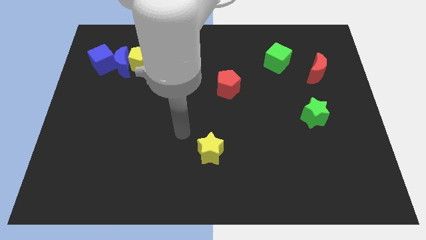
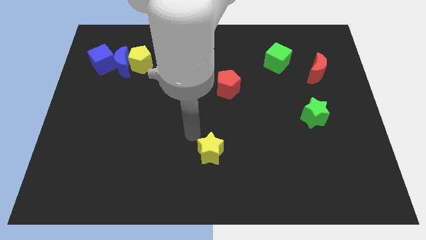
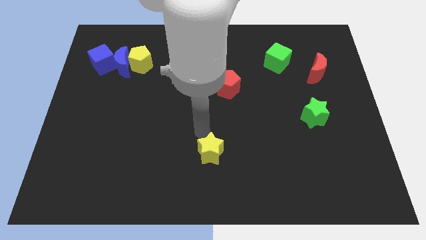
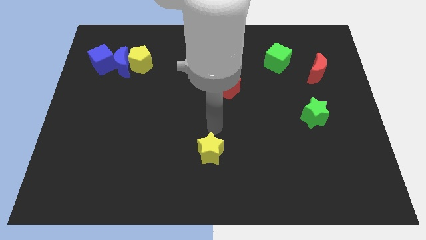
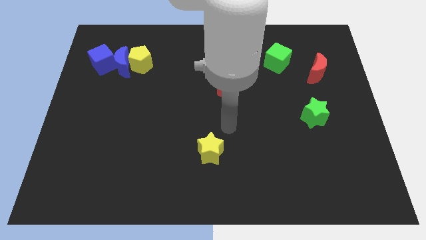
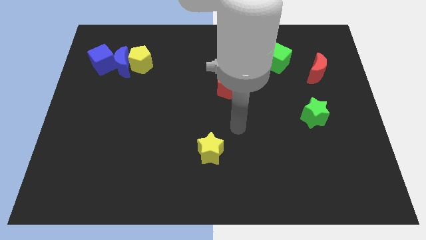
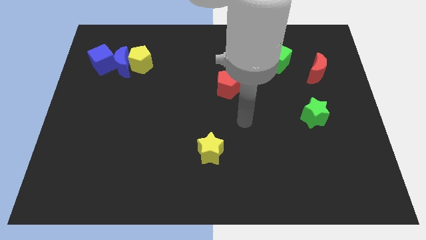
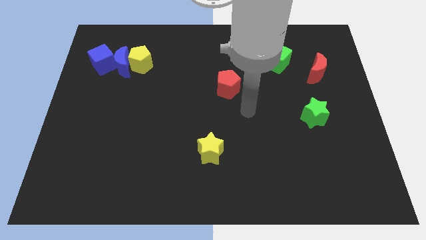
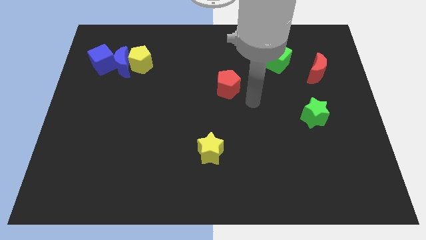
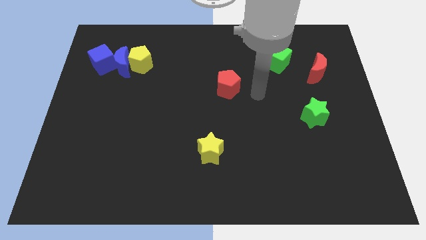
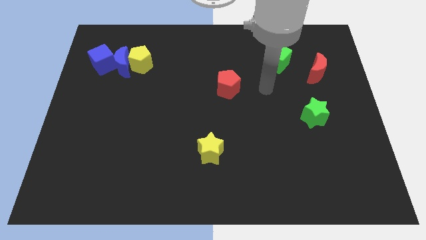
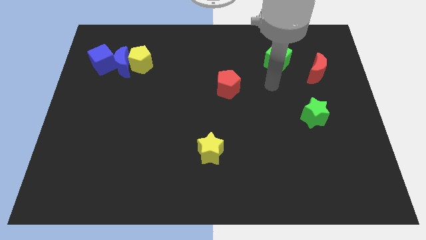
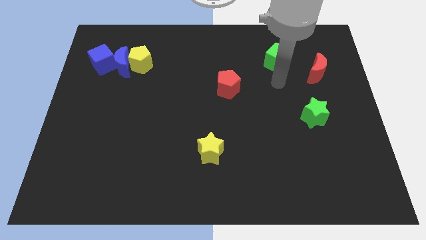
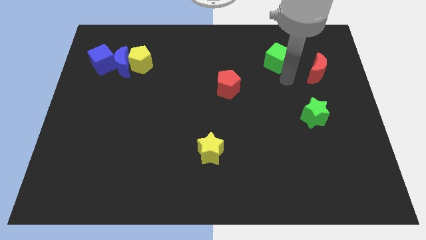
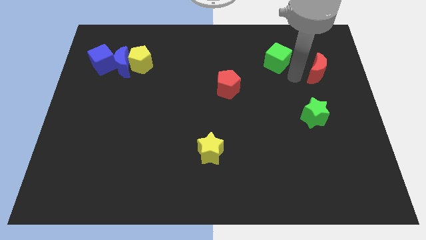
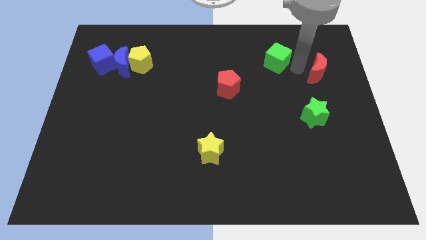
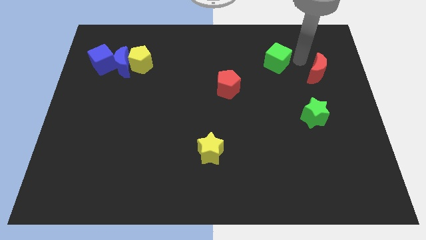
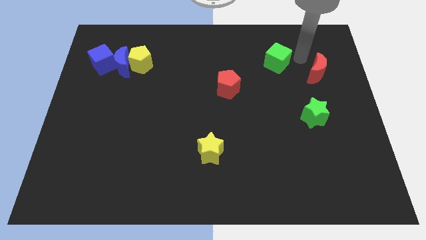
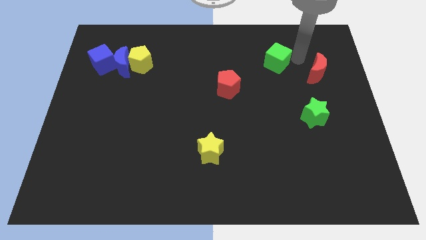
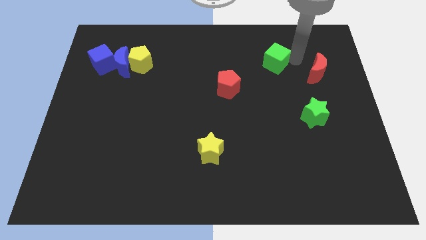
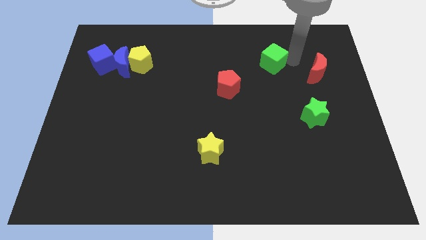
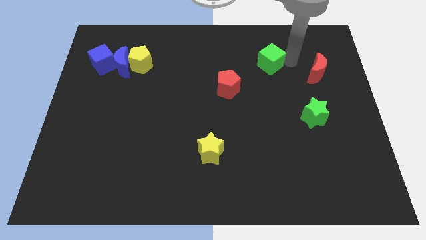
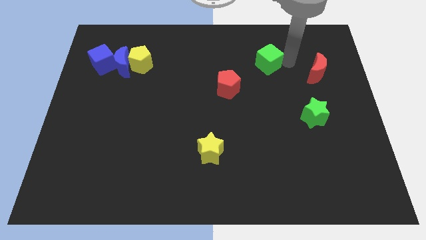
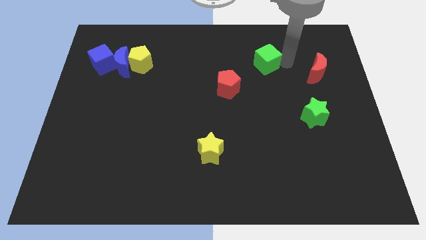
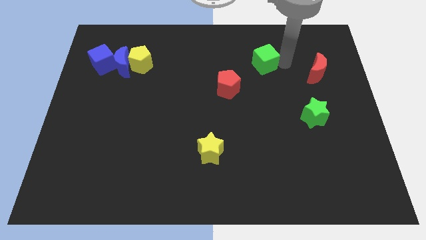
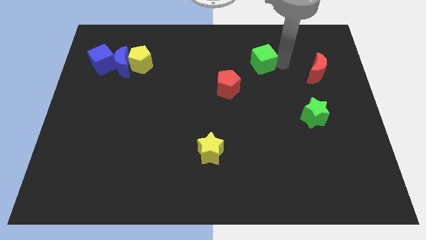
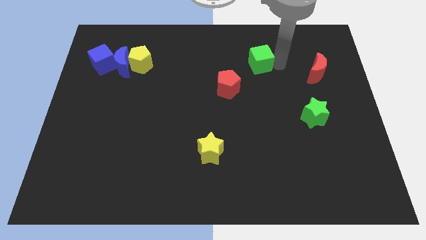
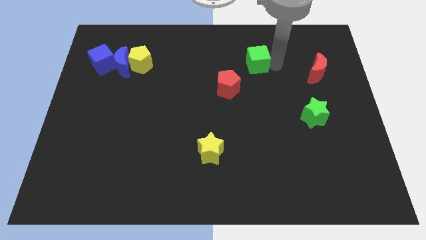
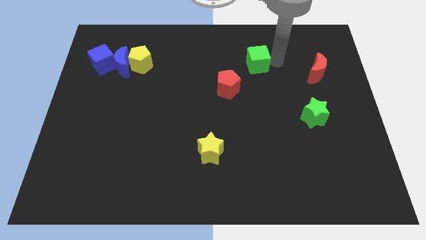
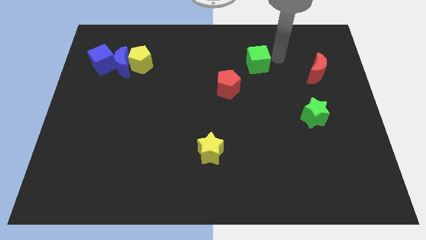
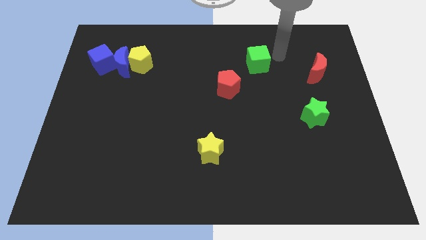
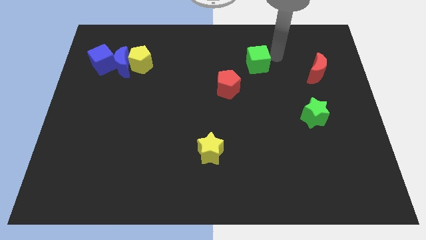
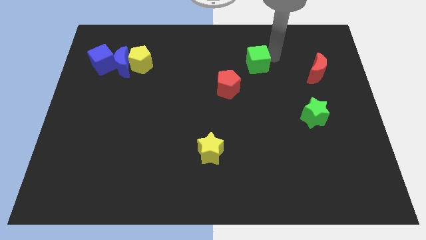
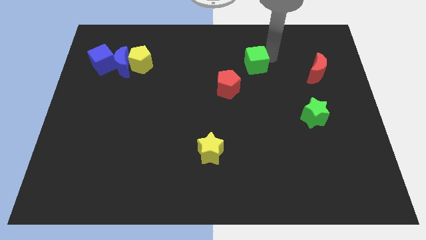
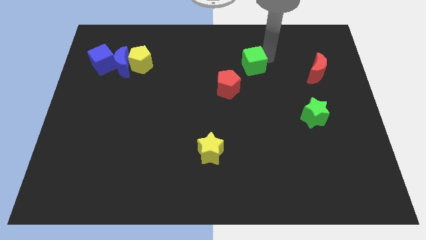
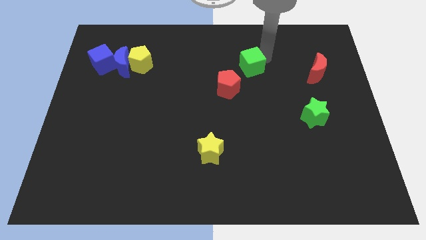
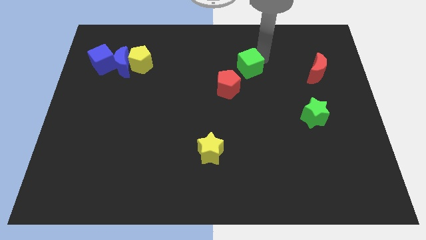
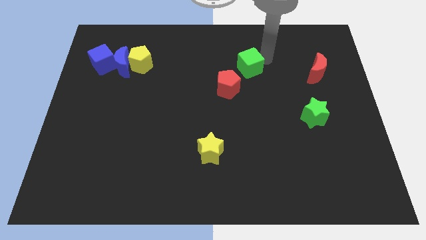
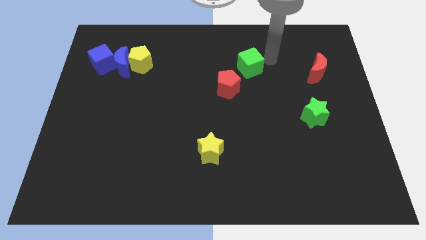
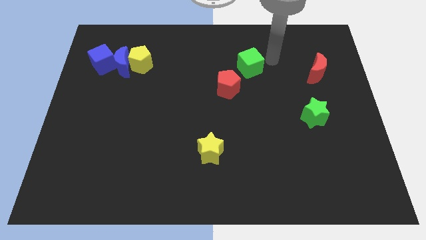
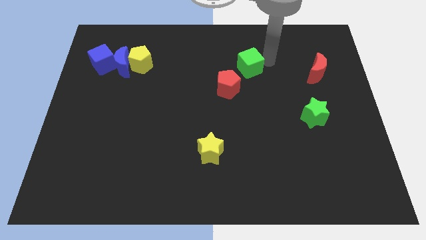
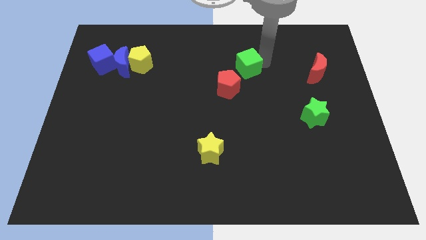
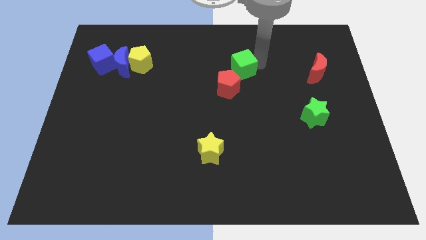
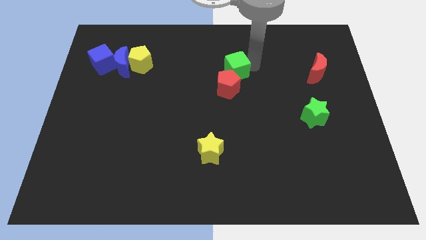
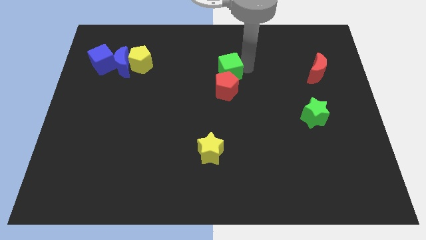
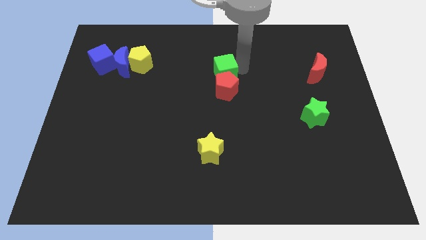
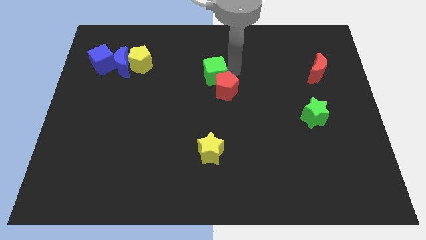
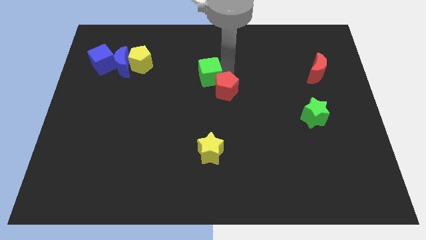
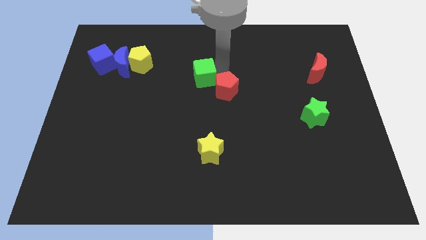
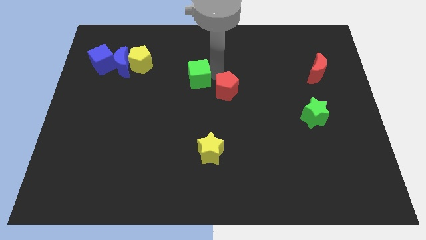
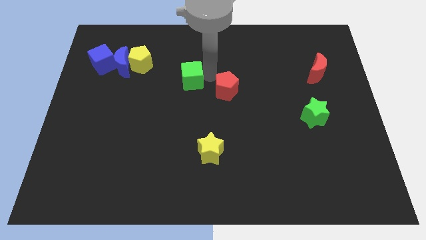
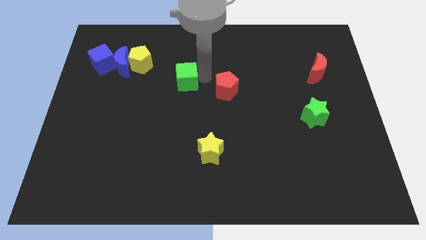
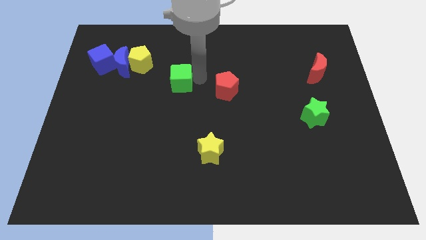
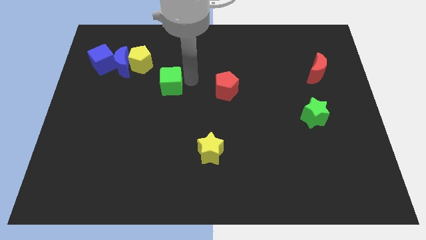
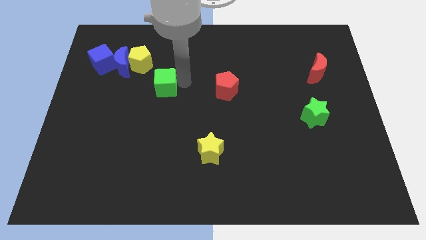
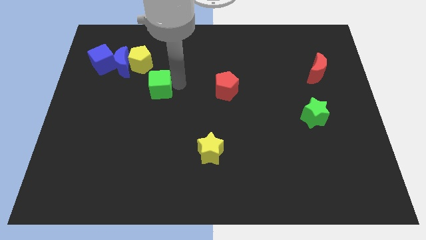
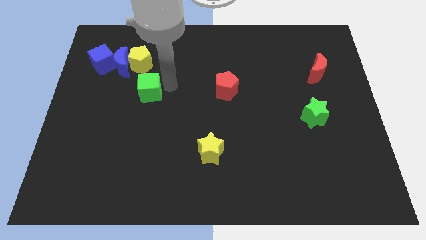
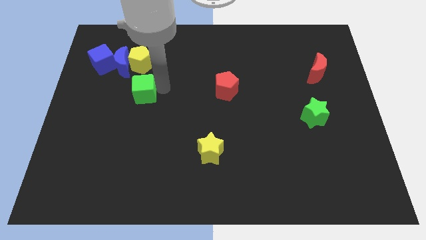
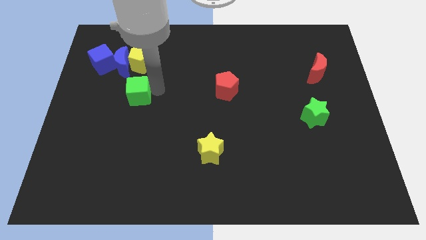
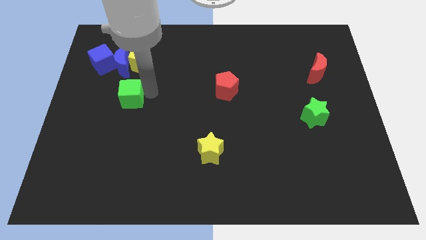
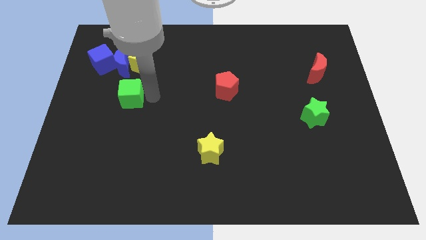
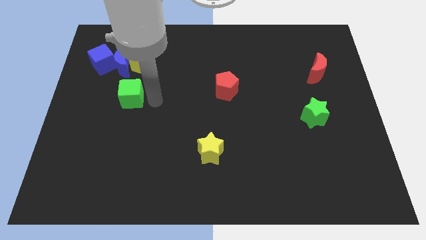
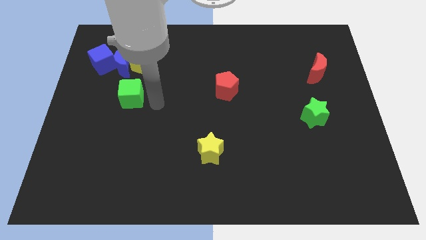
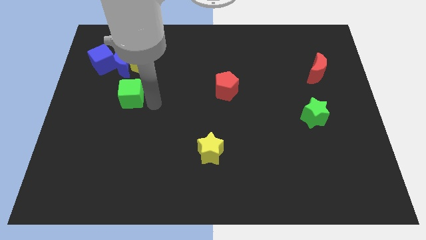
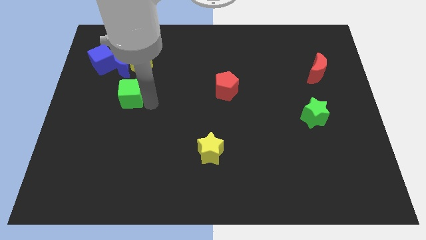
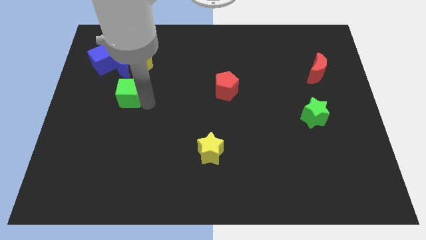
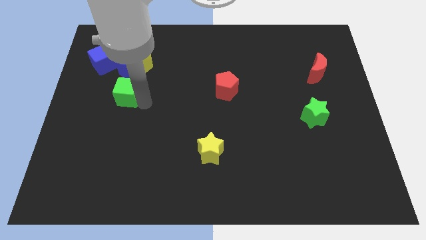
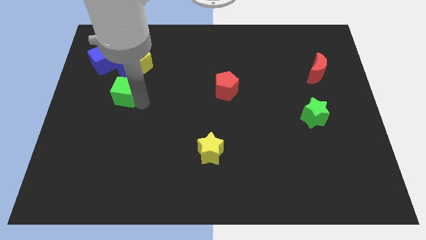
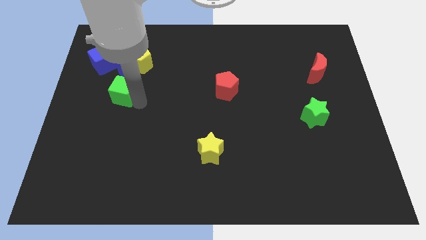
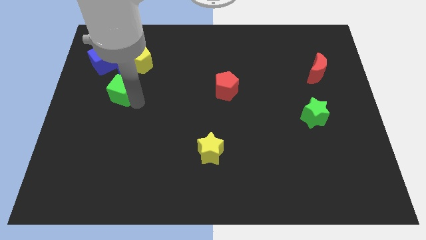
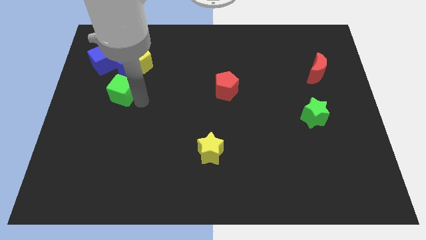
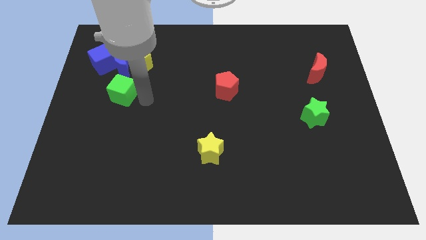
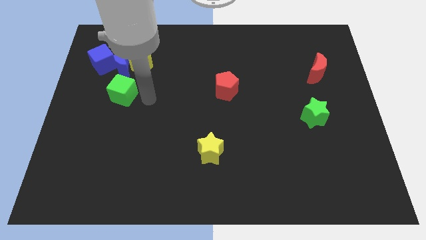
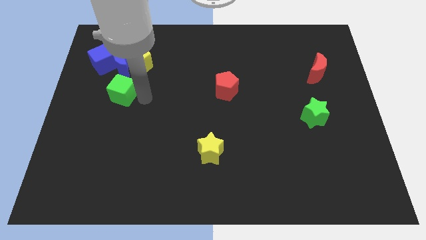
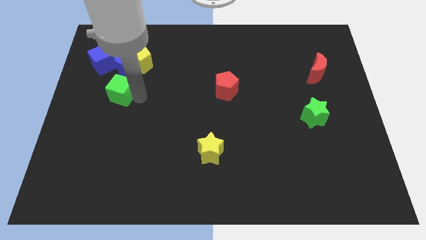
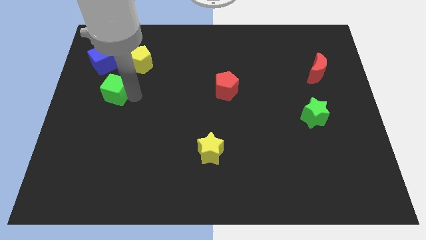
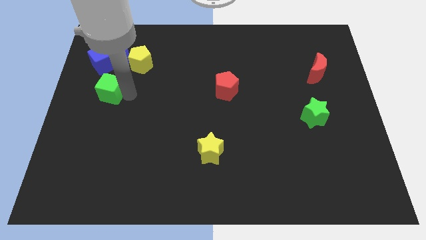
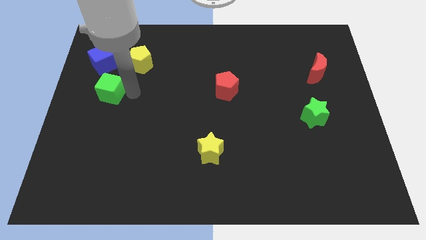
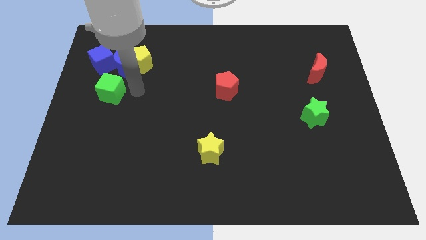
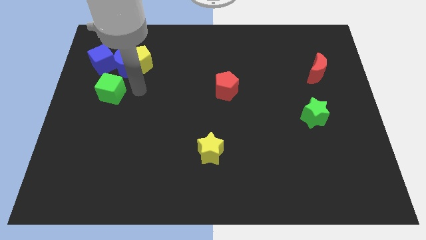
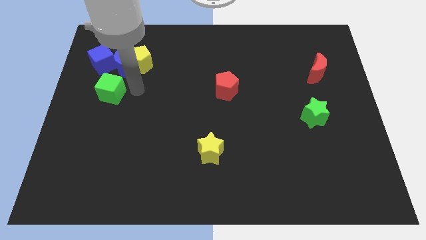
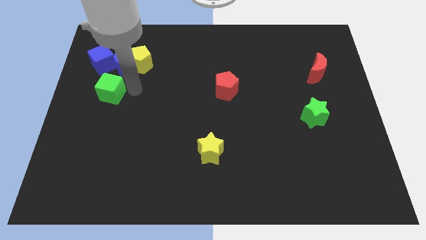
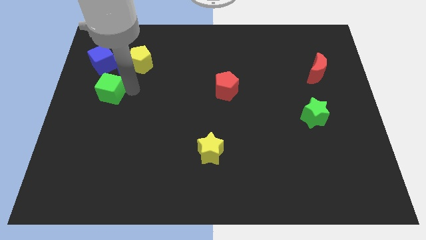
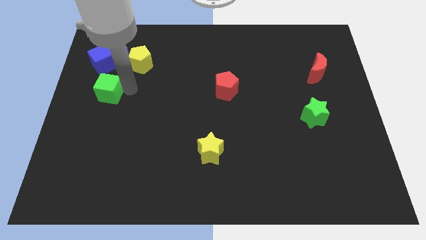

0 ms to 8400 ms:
push the green cube to the left side
